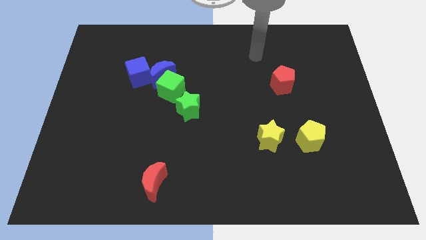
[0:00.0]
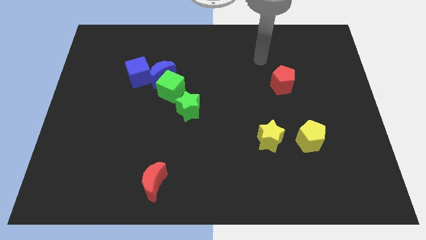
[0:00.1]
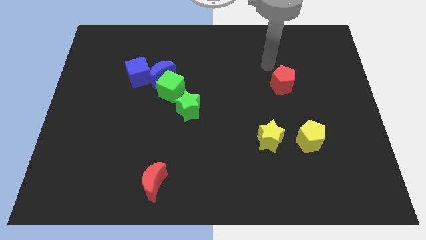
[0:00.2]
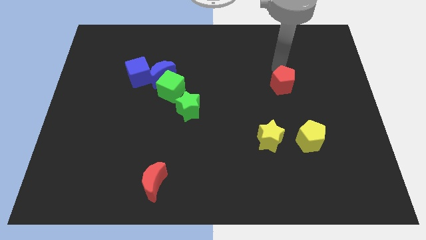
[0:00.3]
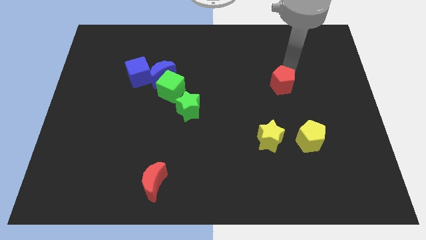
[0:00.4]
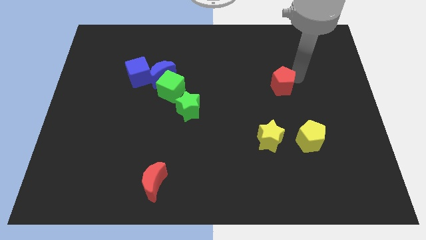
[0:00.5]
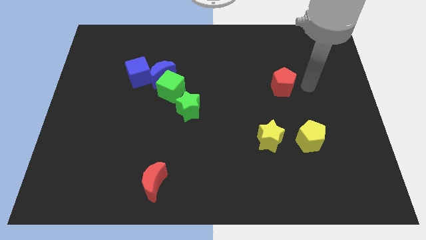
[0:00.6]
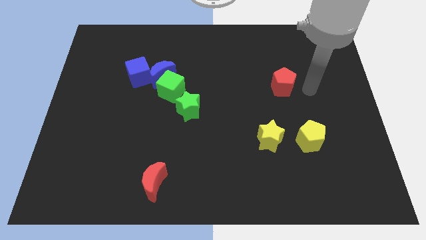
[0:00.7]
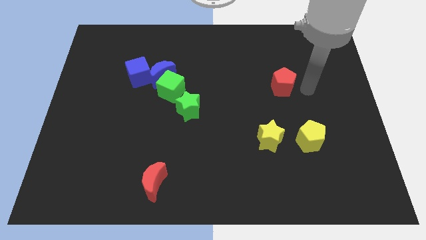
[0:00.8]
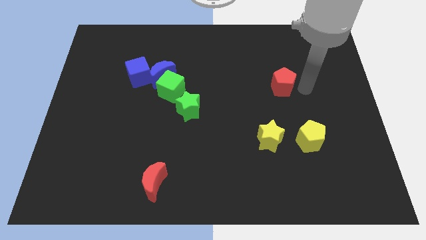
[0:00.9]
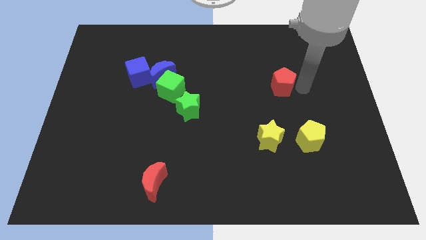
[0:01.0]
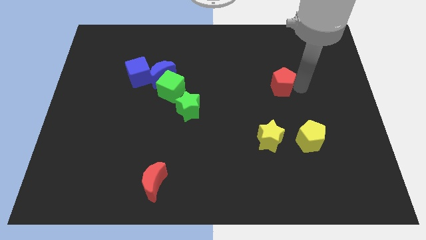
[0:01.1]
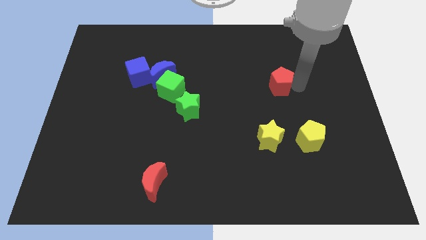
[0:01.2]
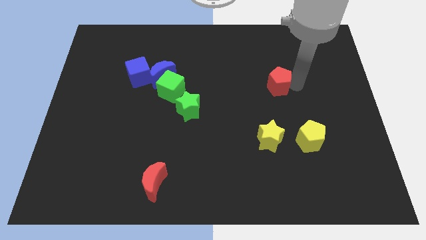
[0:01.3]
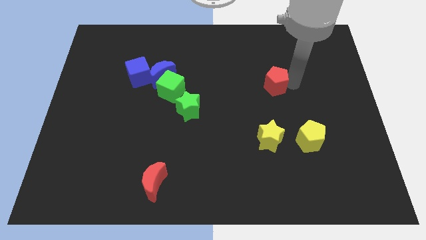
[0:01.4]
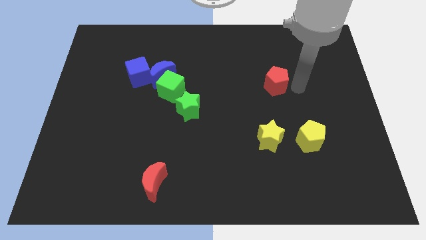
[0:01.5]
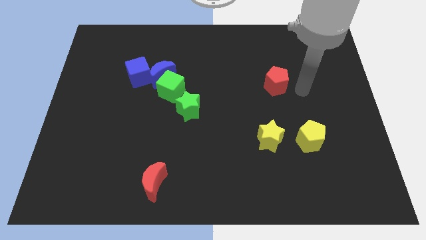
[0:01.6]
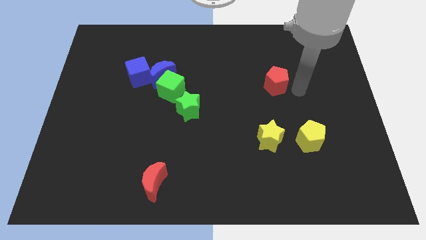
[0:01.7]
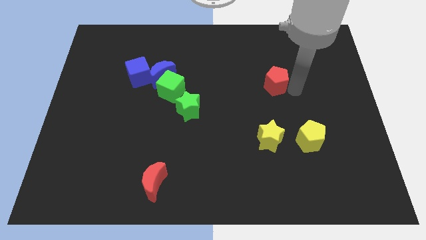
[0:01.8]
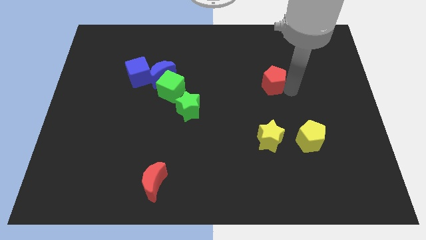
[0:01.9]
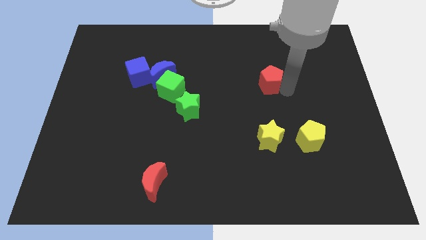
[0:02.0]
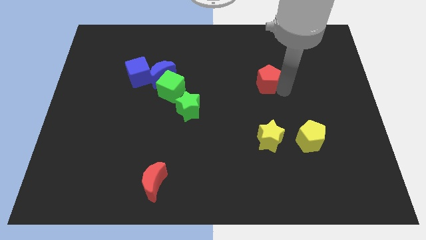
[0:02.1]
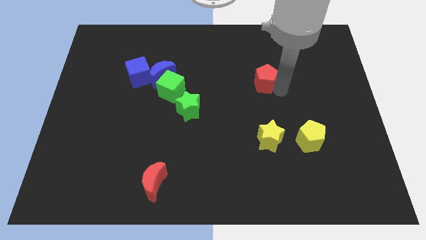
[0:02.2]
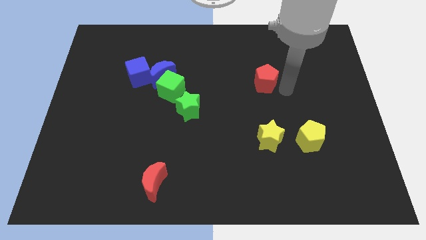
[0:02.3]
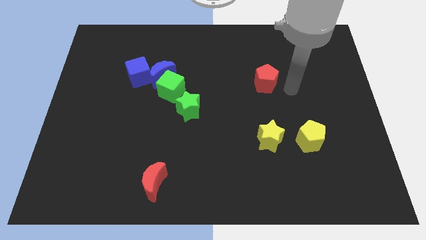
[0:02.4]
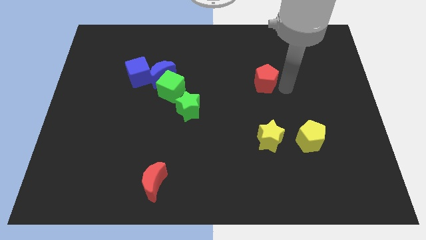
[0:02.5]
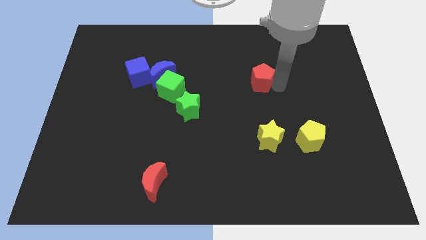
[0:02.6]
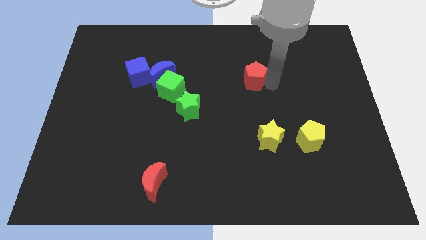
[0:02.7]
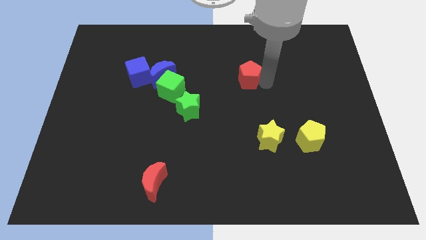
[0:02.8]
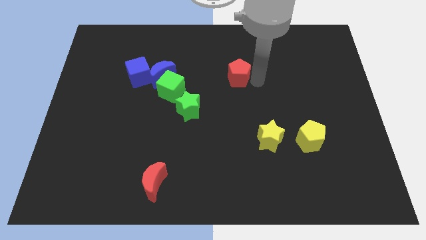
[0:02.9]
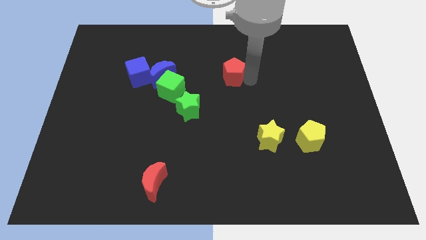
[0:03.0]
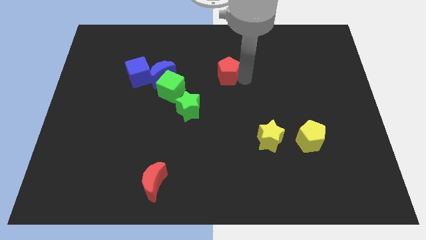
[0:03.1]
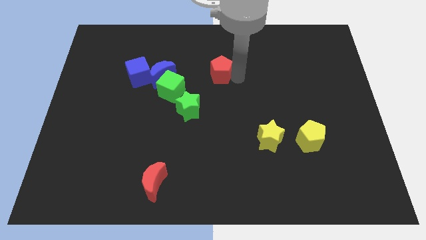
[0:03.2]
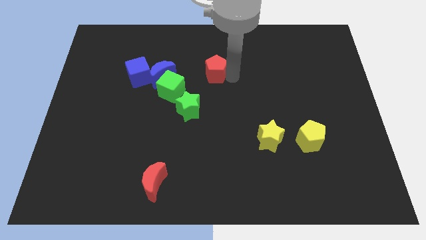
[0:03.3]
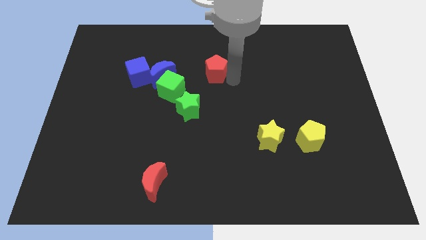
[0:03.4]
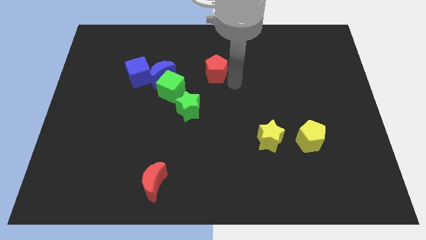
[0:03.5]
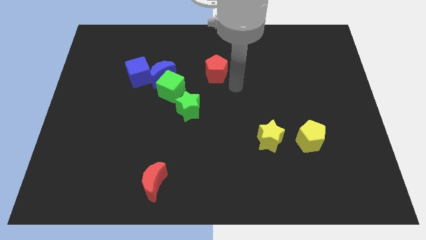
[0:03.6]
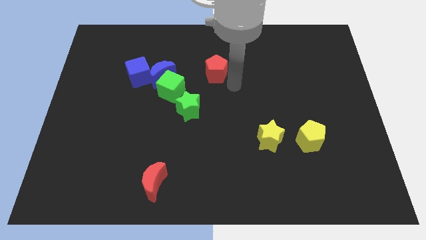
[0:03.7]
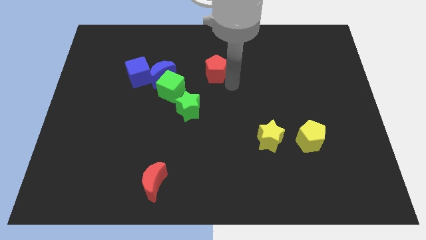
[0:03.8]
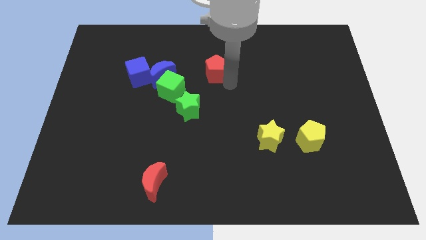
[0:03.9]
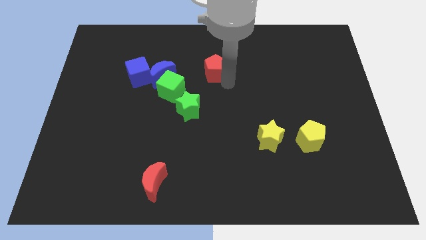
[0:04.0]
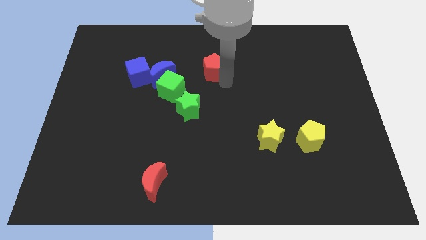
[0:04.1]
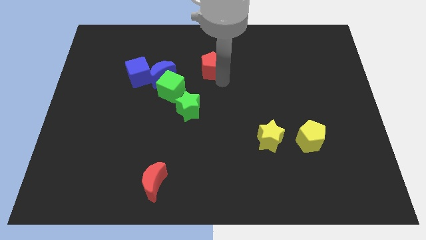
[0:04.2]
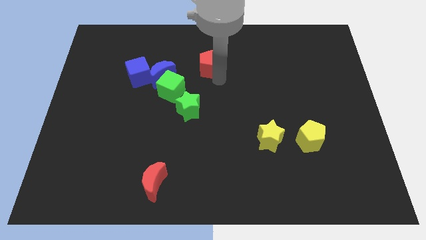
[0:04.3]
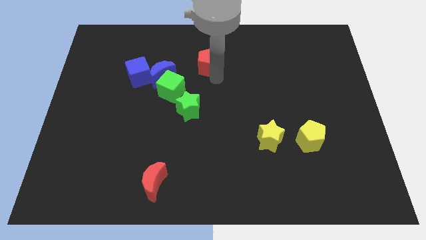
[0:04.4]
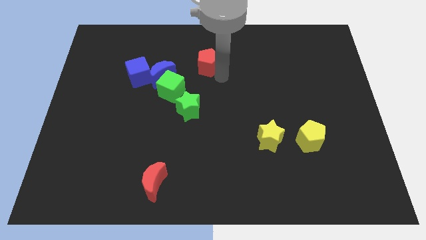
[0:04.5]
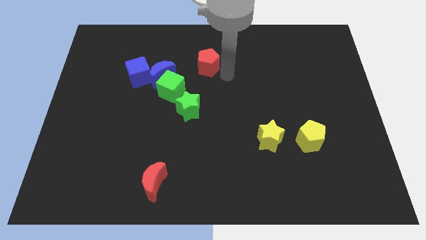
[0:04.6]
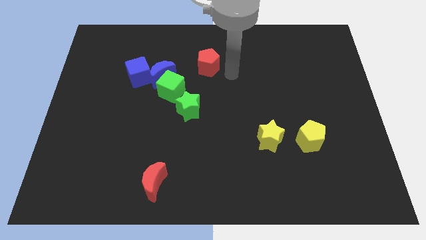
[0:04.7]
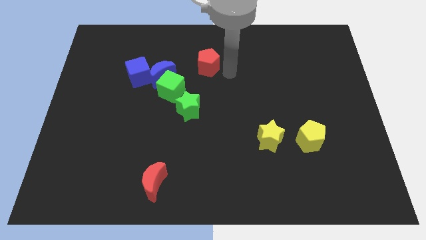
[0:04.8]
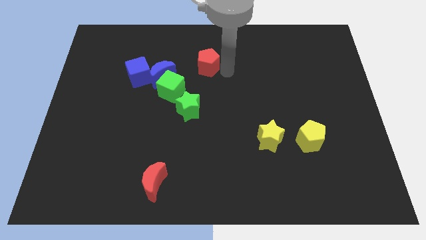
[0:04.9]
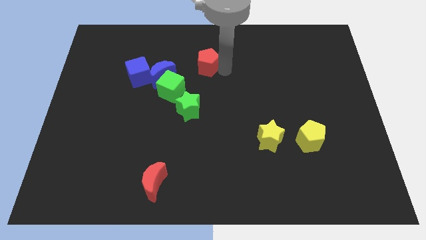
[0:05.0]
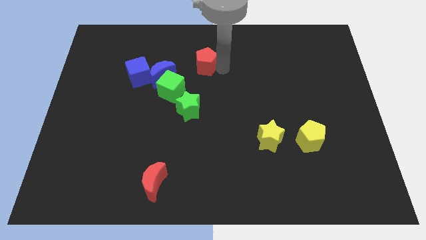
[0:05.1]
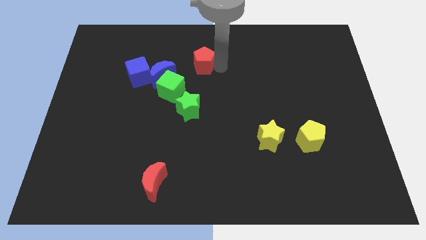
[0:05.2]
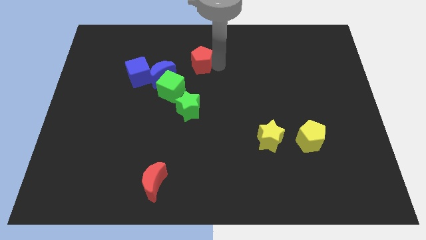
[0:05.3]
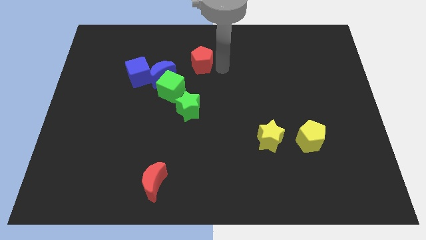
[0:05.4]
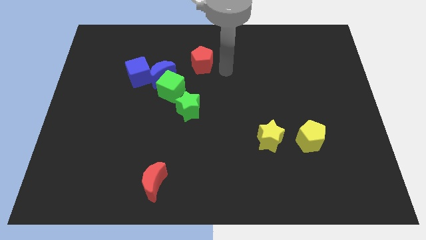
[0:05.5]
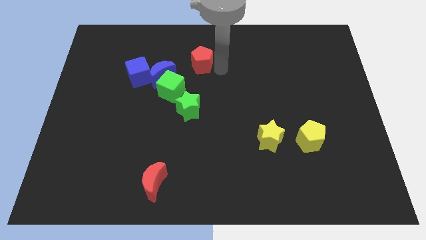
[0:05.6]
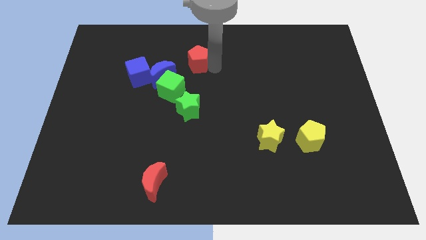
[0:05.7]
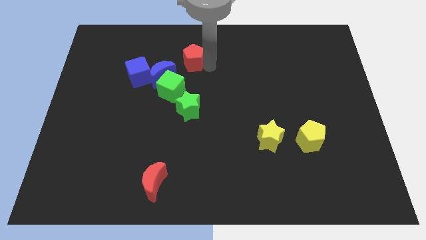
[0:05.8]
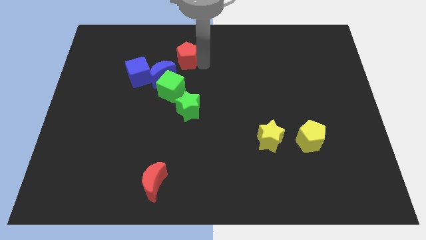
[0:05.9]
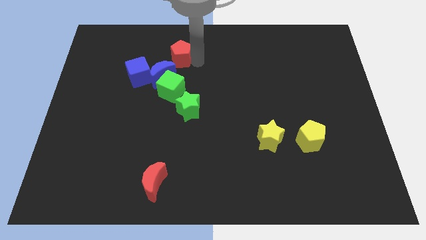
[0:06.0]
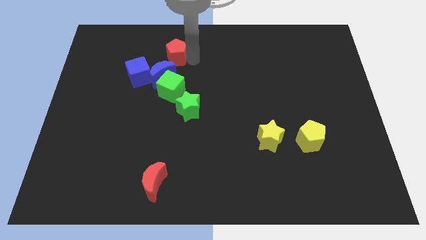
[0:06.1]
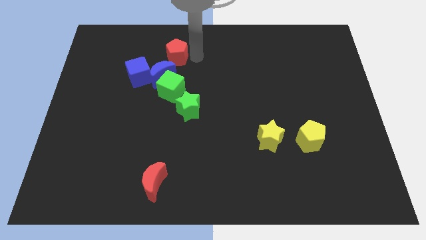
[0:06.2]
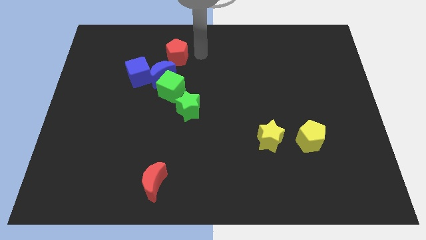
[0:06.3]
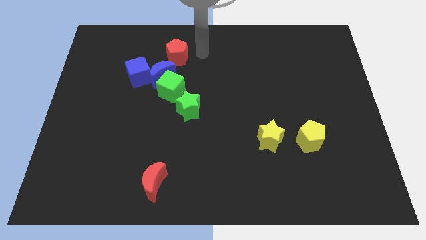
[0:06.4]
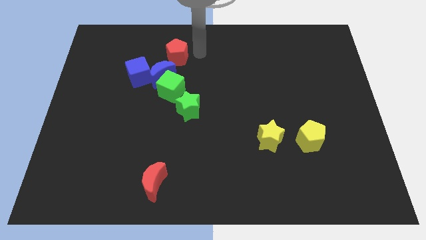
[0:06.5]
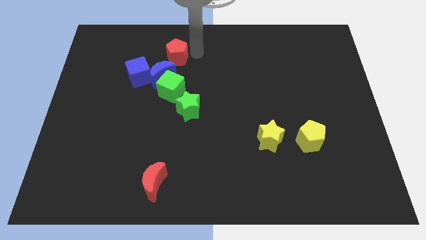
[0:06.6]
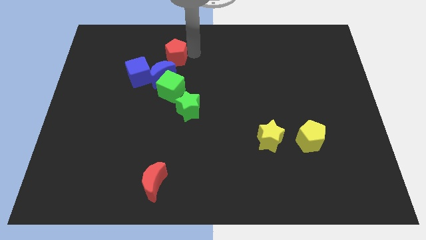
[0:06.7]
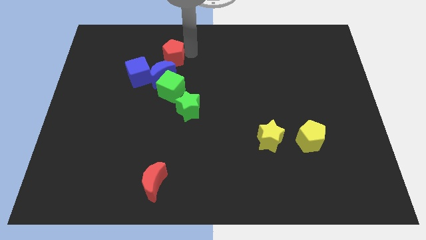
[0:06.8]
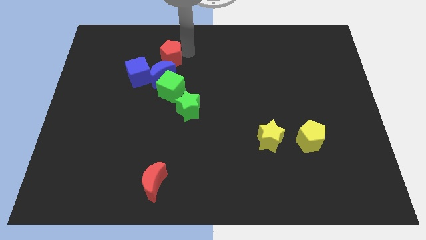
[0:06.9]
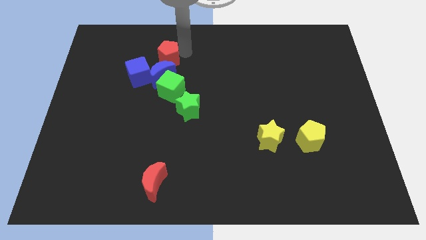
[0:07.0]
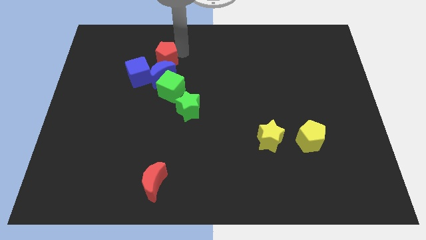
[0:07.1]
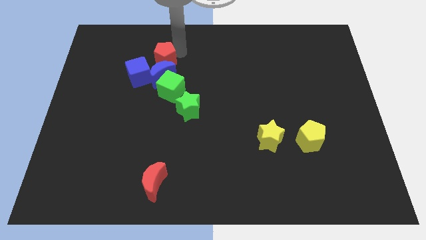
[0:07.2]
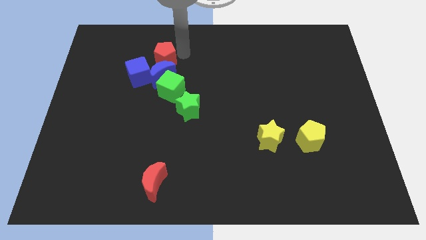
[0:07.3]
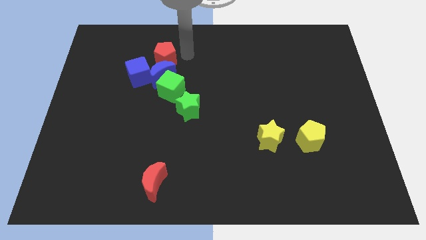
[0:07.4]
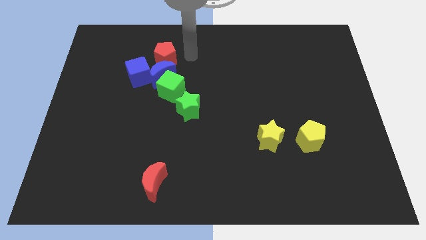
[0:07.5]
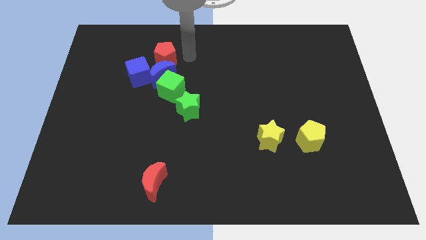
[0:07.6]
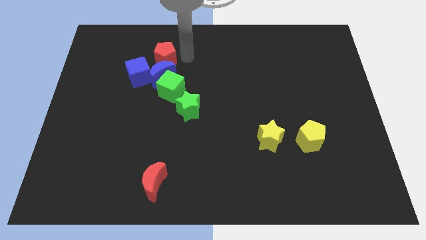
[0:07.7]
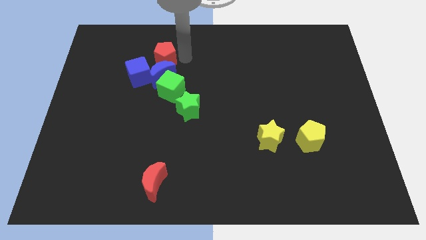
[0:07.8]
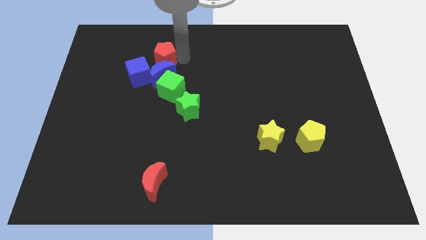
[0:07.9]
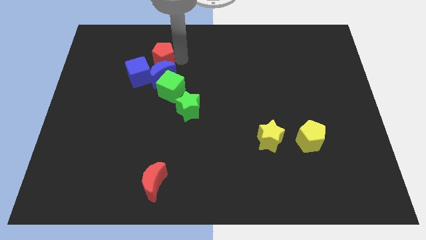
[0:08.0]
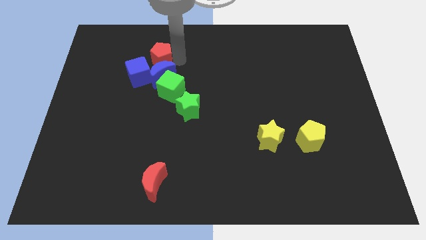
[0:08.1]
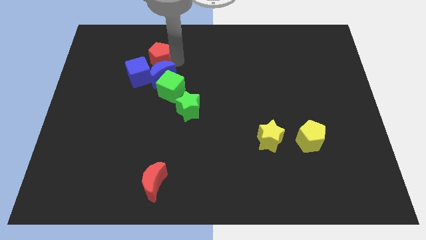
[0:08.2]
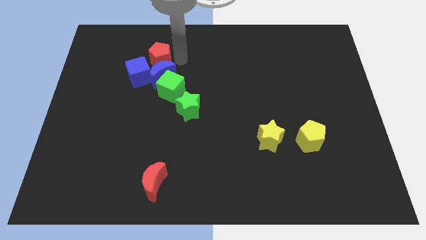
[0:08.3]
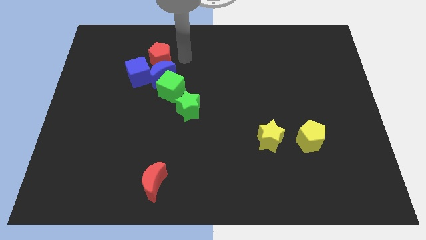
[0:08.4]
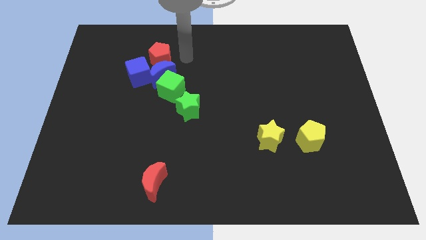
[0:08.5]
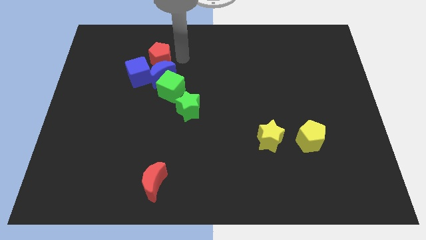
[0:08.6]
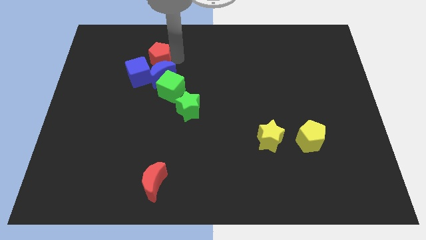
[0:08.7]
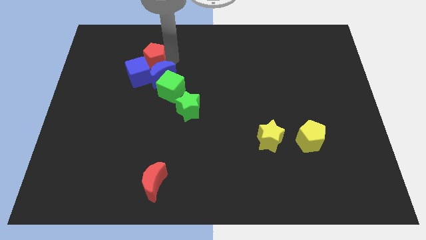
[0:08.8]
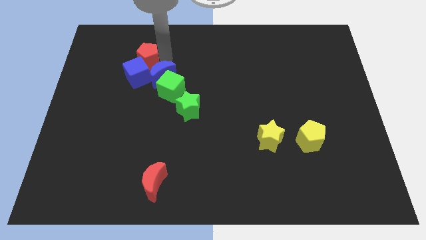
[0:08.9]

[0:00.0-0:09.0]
move the red pentagon close to the blue cube
